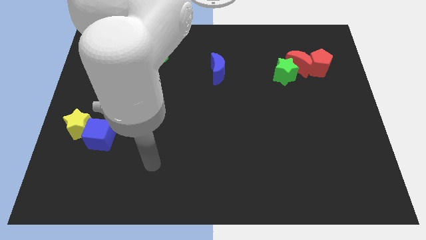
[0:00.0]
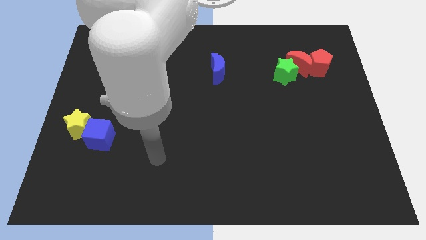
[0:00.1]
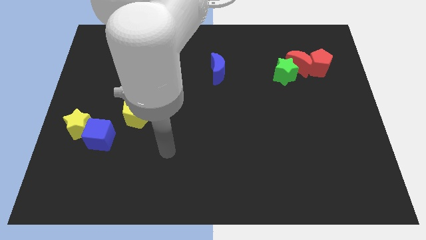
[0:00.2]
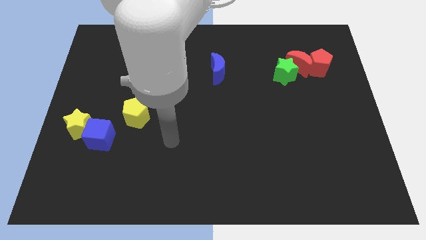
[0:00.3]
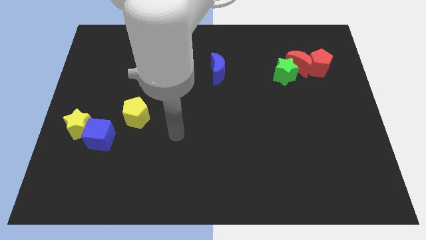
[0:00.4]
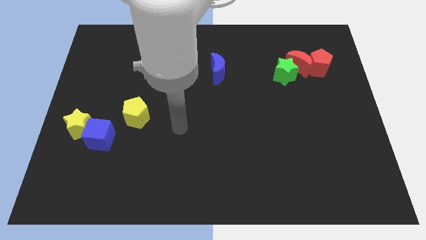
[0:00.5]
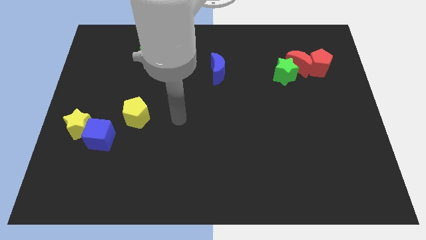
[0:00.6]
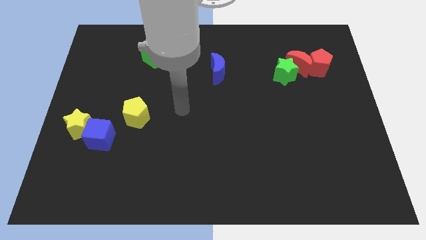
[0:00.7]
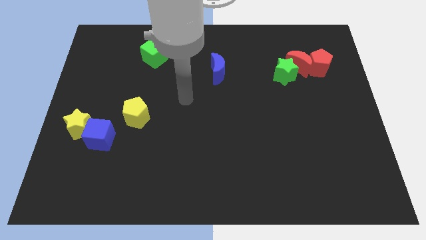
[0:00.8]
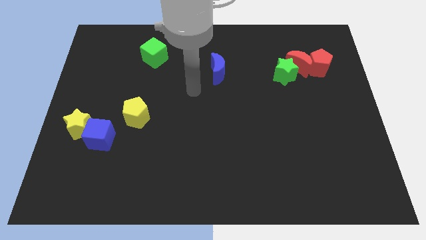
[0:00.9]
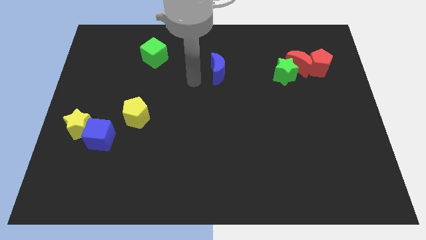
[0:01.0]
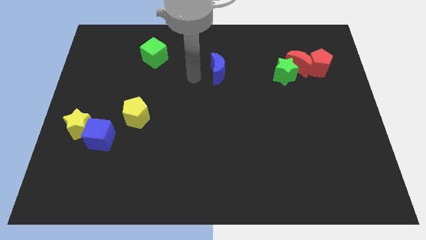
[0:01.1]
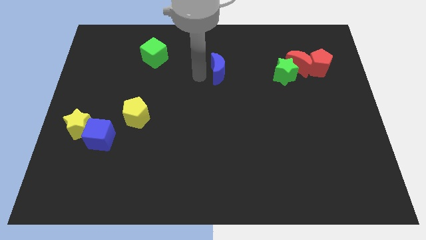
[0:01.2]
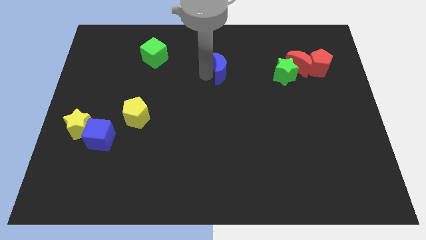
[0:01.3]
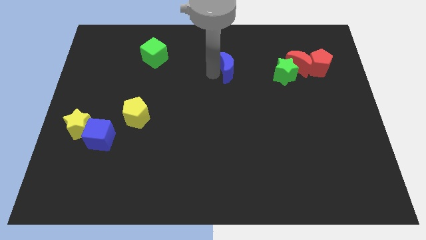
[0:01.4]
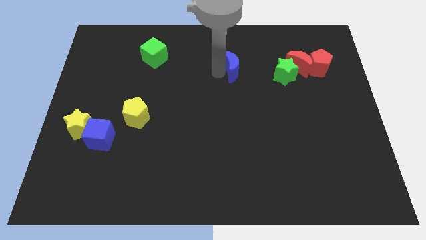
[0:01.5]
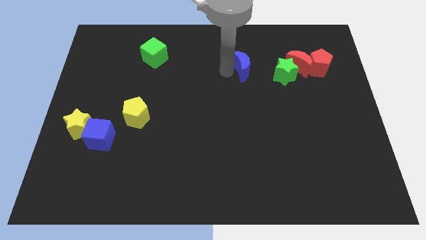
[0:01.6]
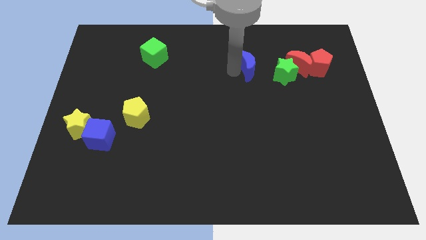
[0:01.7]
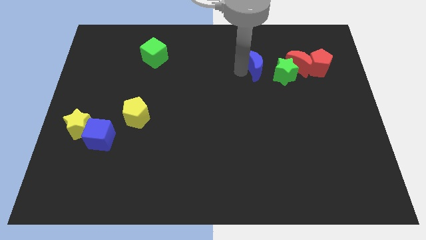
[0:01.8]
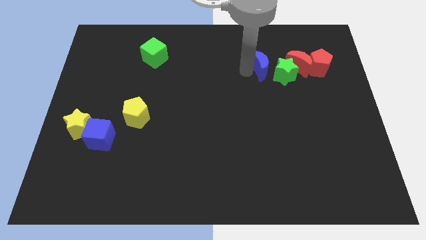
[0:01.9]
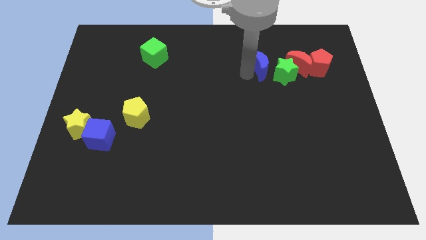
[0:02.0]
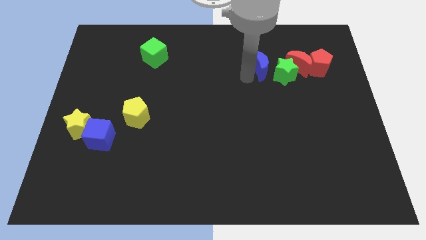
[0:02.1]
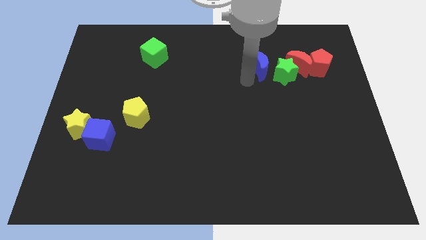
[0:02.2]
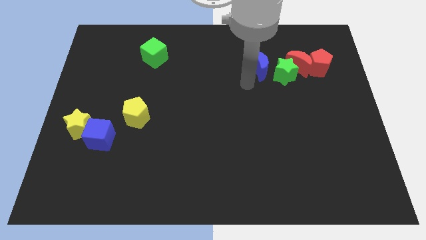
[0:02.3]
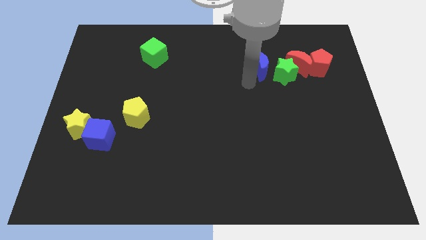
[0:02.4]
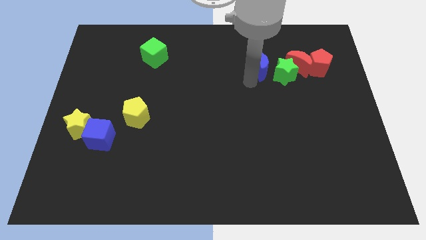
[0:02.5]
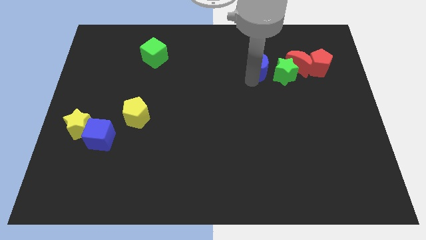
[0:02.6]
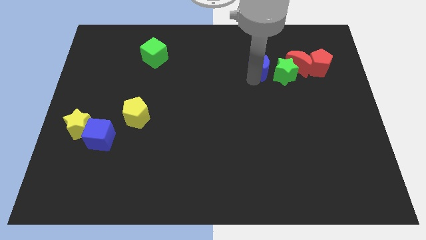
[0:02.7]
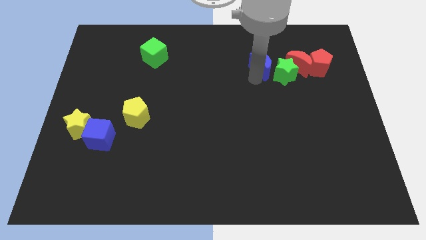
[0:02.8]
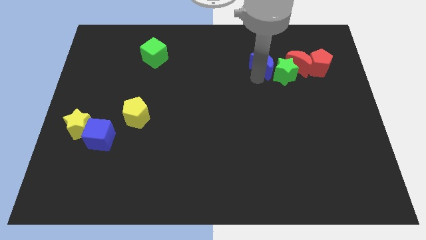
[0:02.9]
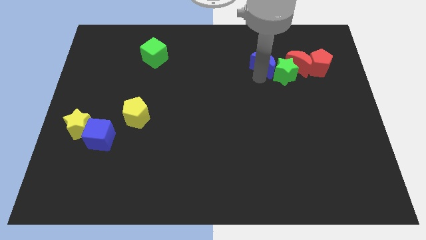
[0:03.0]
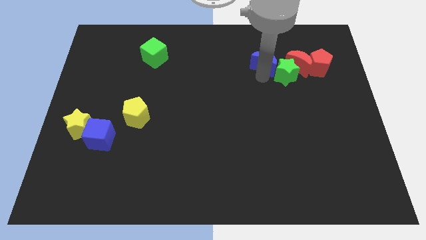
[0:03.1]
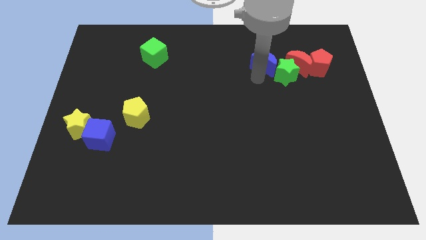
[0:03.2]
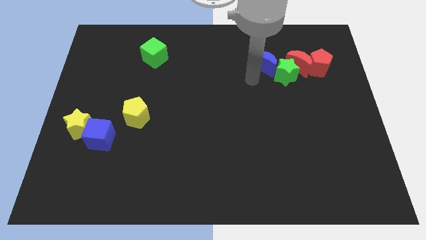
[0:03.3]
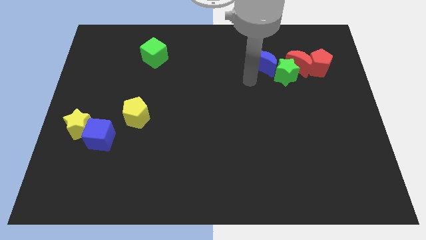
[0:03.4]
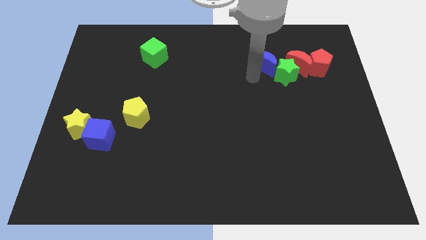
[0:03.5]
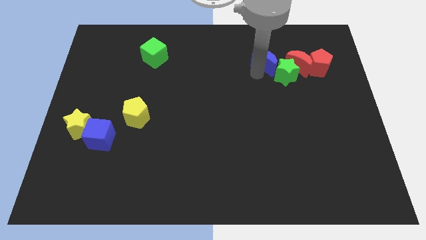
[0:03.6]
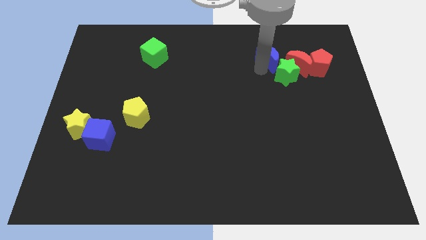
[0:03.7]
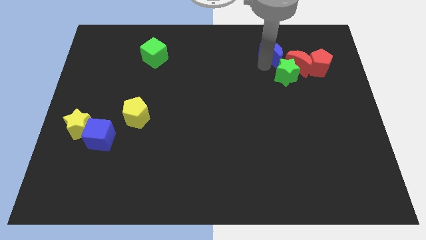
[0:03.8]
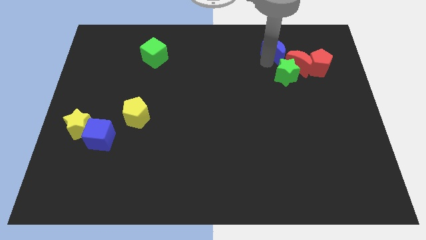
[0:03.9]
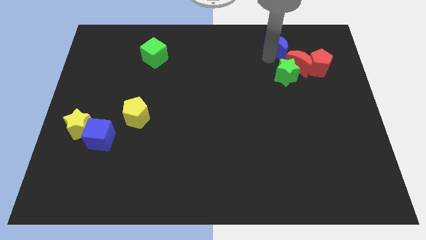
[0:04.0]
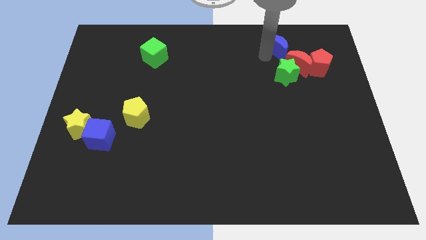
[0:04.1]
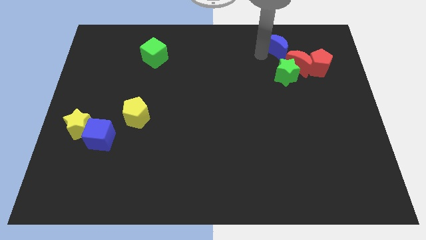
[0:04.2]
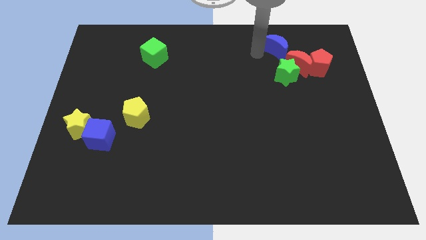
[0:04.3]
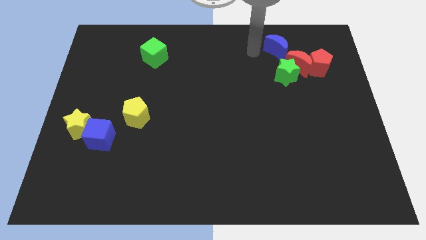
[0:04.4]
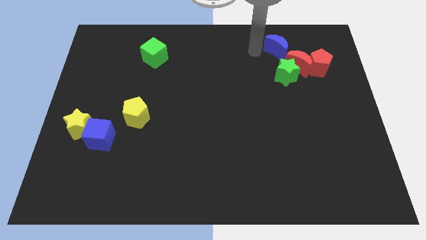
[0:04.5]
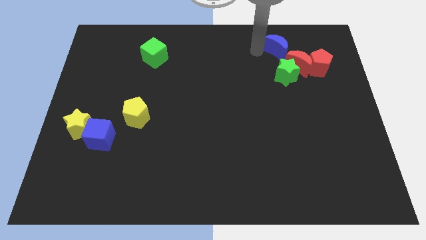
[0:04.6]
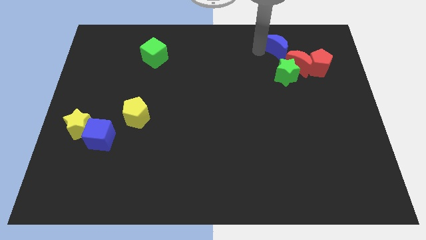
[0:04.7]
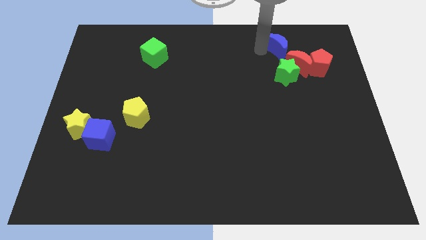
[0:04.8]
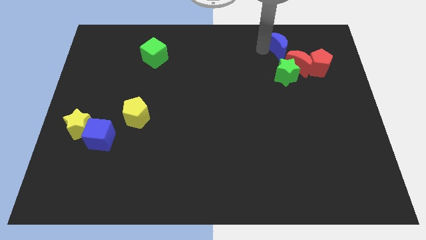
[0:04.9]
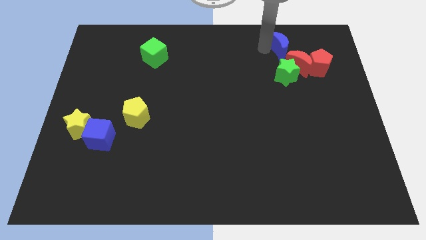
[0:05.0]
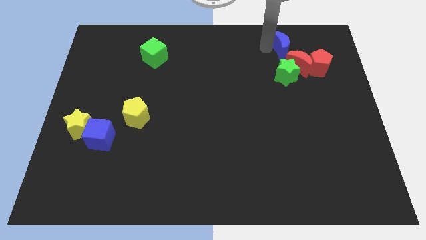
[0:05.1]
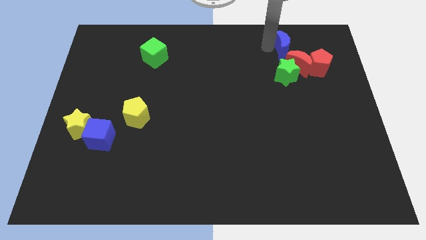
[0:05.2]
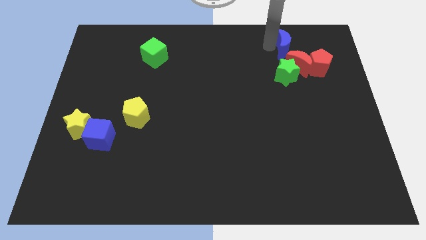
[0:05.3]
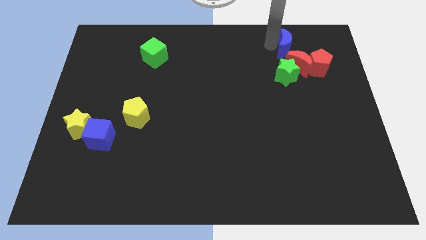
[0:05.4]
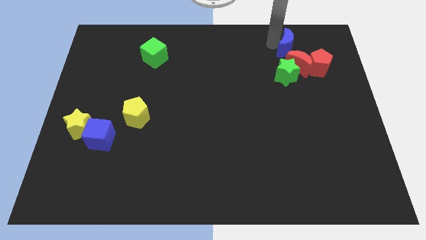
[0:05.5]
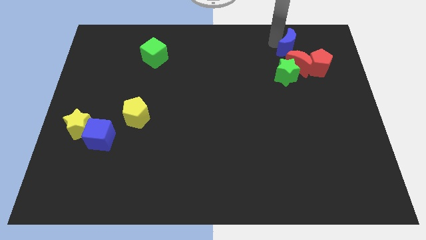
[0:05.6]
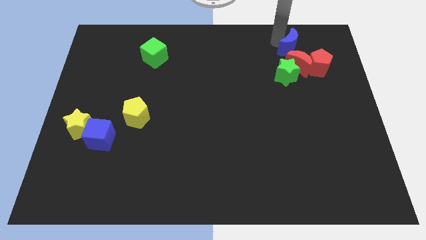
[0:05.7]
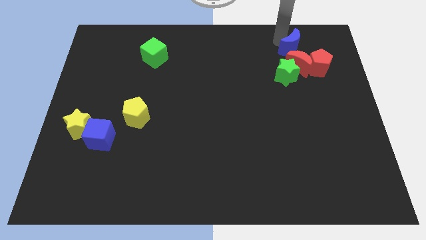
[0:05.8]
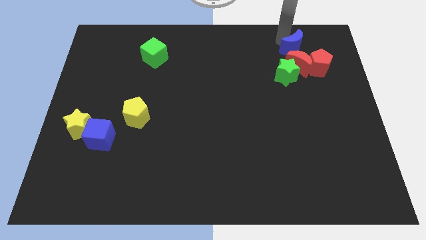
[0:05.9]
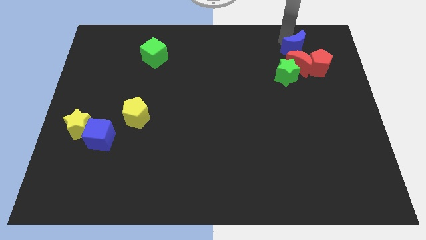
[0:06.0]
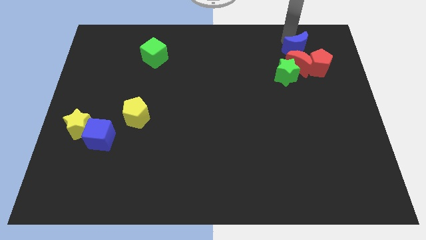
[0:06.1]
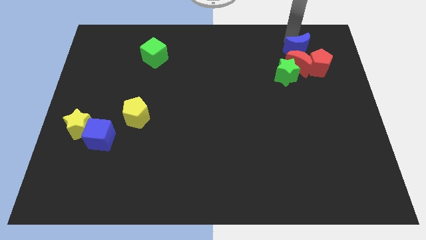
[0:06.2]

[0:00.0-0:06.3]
put the blue moon to the red moon

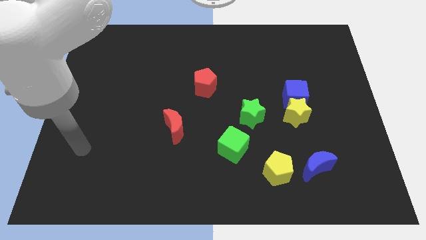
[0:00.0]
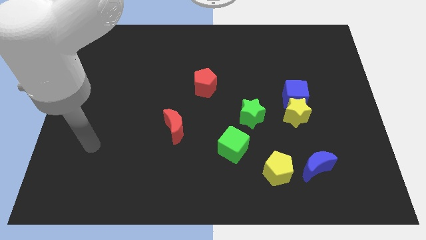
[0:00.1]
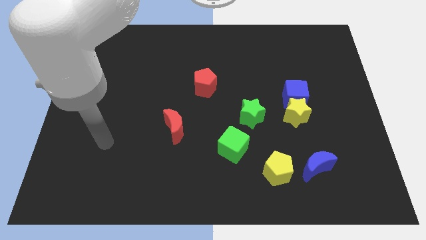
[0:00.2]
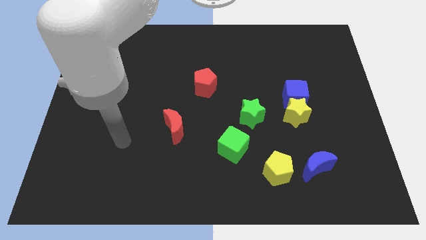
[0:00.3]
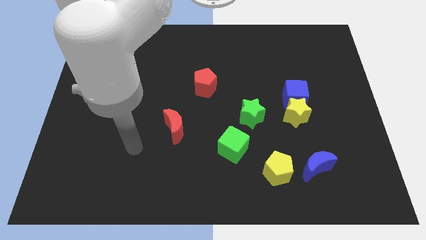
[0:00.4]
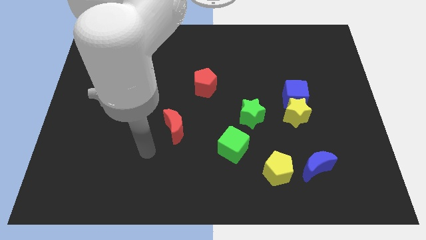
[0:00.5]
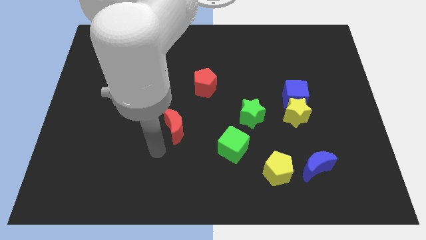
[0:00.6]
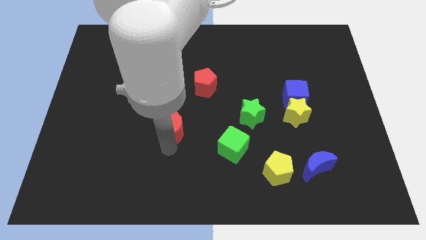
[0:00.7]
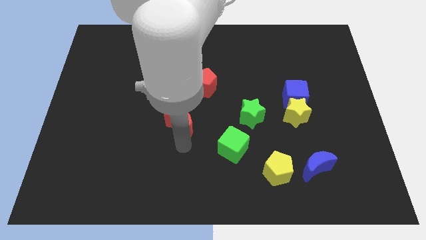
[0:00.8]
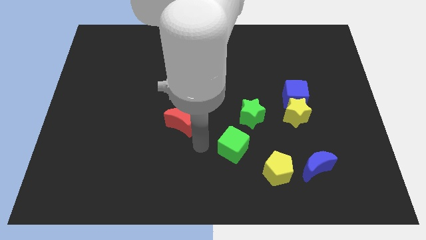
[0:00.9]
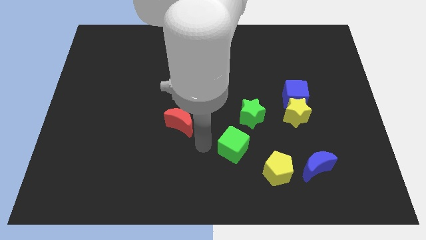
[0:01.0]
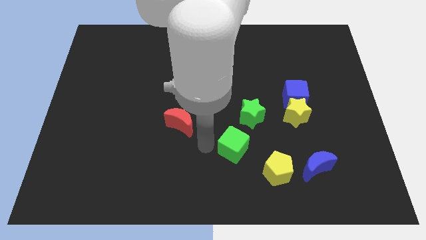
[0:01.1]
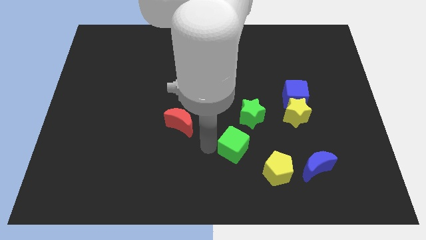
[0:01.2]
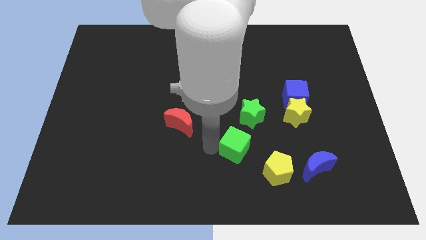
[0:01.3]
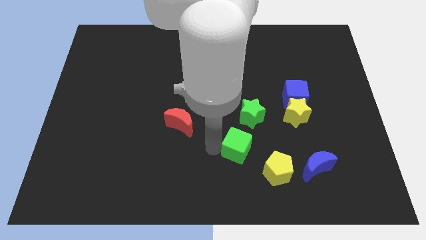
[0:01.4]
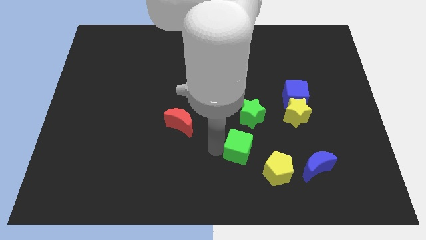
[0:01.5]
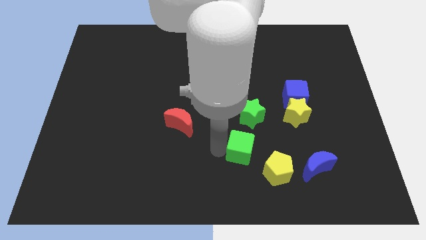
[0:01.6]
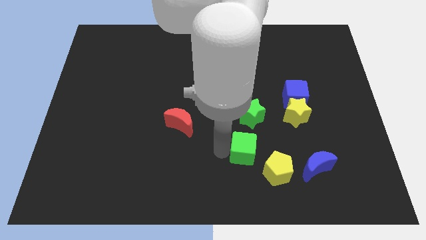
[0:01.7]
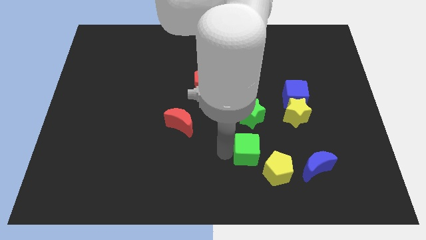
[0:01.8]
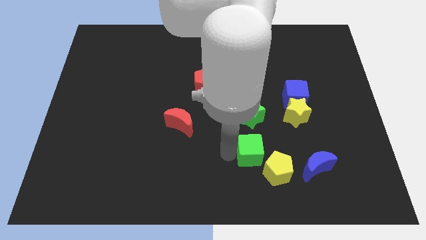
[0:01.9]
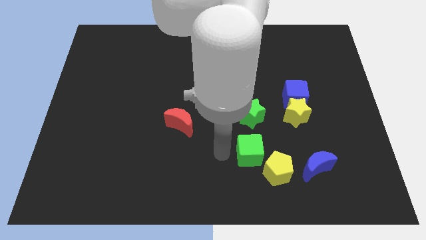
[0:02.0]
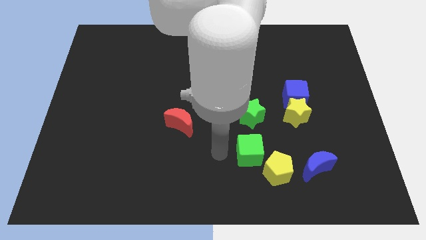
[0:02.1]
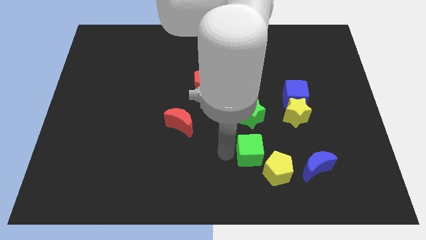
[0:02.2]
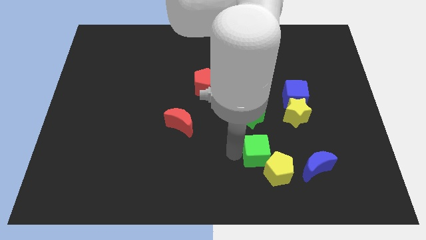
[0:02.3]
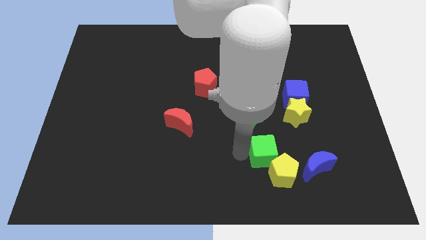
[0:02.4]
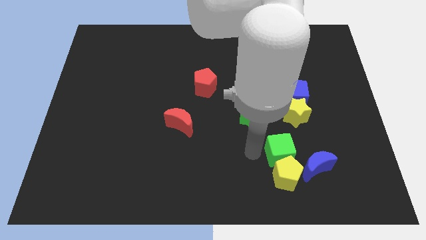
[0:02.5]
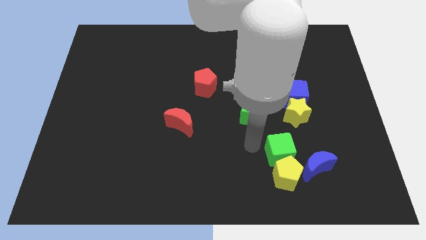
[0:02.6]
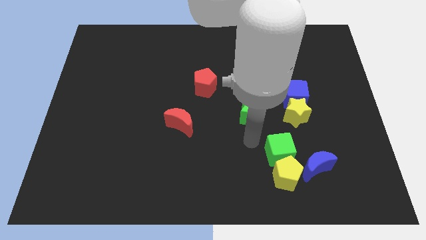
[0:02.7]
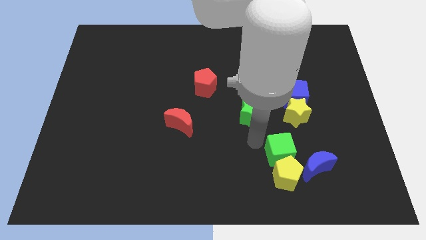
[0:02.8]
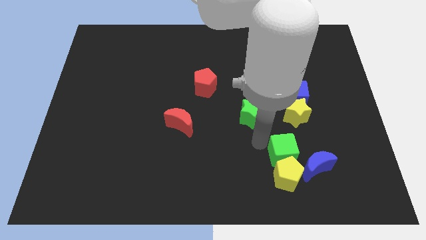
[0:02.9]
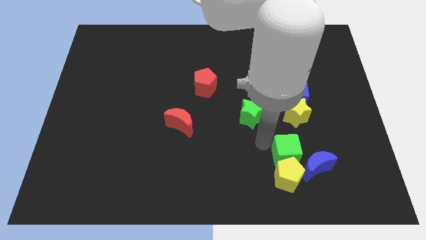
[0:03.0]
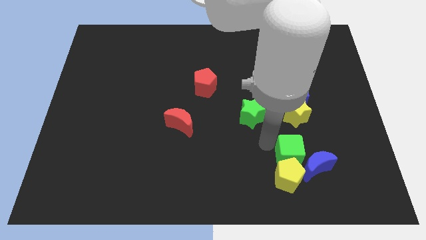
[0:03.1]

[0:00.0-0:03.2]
push the green cube to the blue moon
